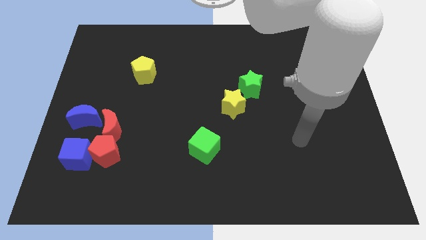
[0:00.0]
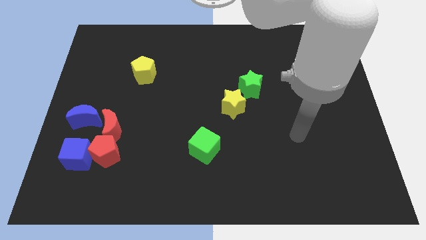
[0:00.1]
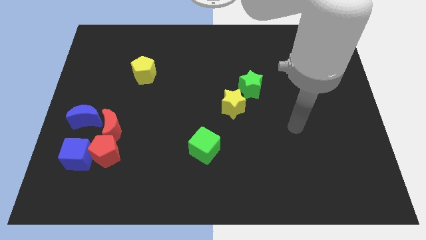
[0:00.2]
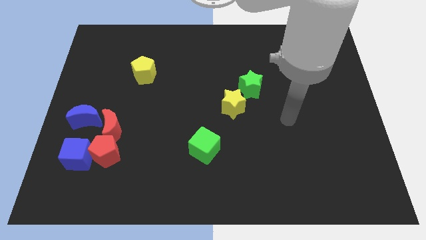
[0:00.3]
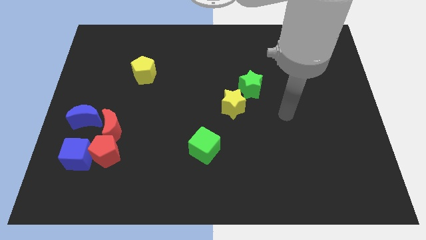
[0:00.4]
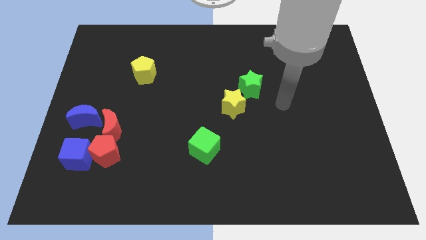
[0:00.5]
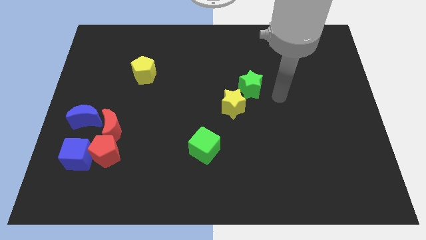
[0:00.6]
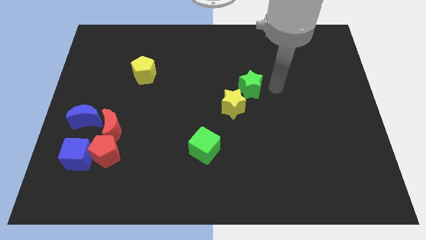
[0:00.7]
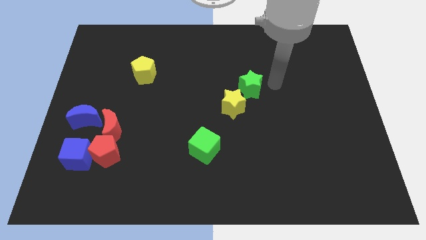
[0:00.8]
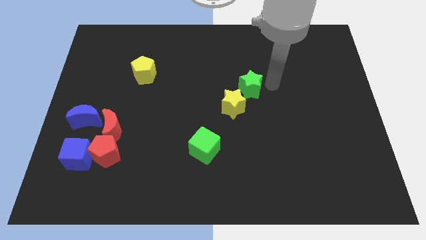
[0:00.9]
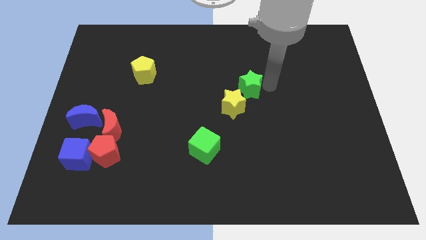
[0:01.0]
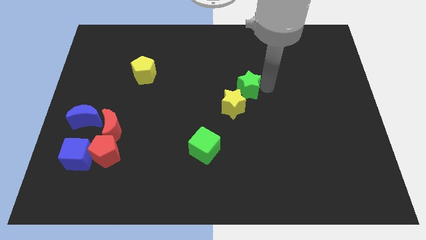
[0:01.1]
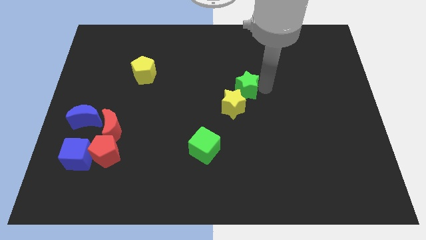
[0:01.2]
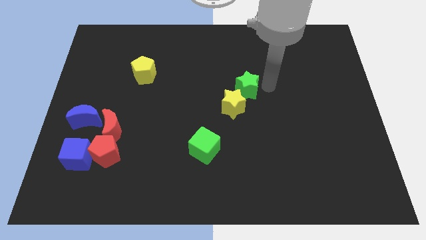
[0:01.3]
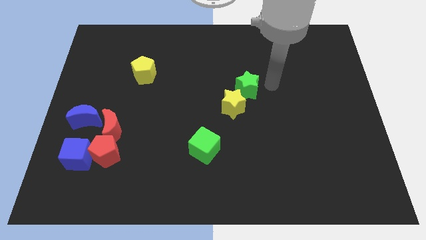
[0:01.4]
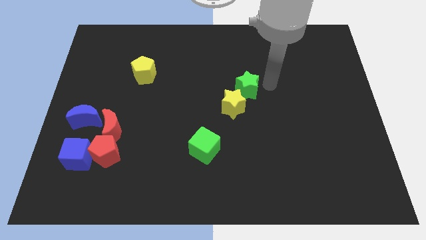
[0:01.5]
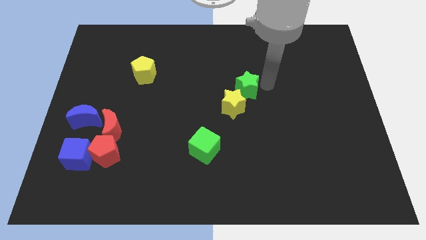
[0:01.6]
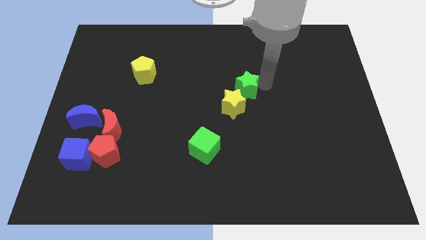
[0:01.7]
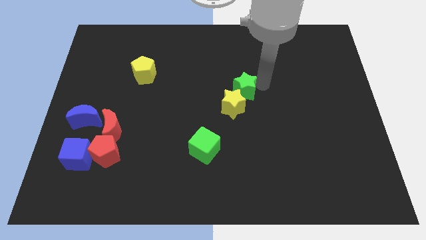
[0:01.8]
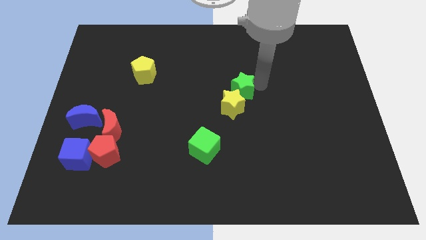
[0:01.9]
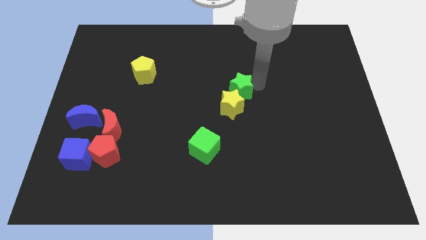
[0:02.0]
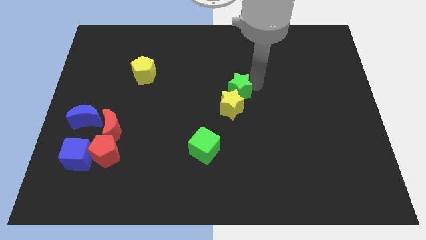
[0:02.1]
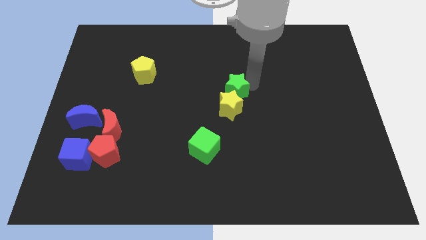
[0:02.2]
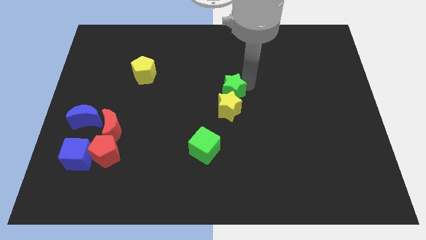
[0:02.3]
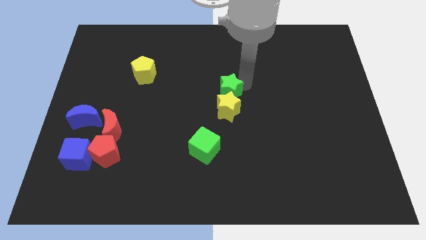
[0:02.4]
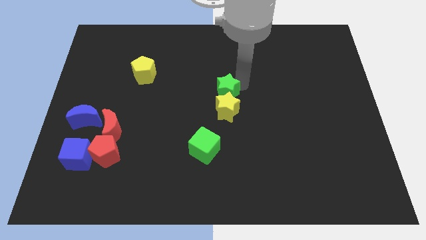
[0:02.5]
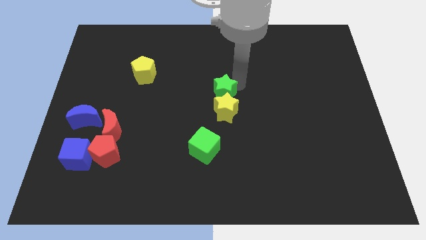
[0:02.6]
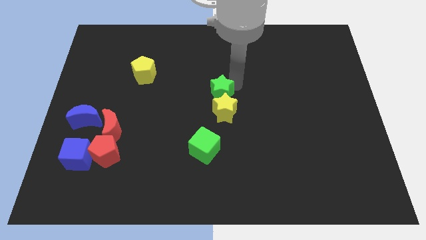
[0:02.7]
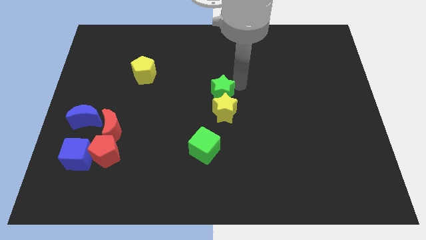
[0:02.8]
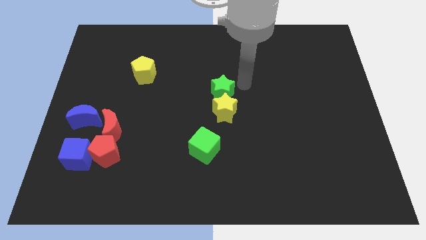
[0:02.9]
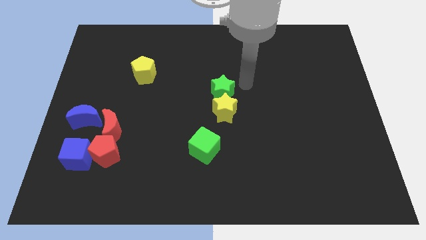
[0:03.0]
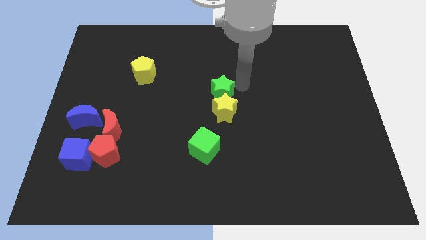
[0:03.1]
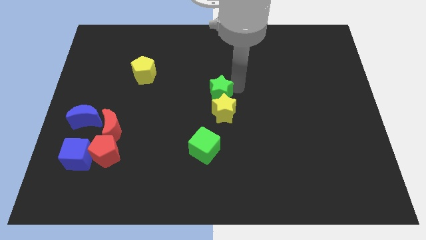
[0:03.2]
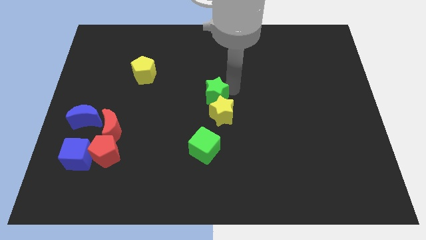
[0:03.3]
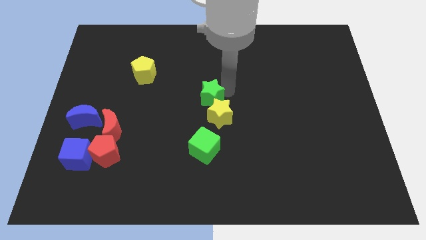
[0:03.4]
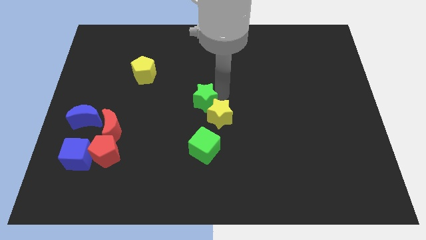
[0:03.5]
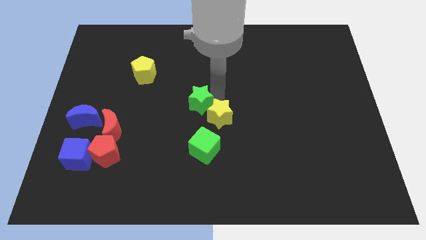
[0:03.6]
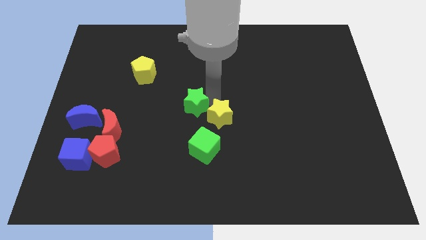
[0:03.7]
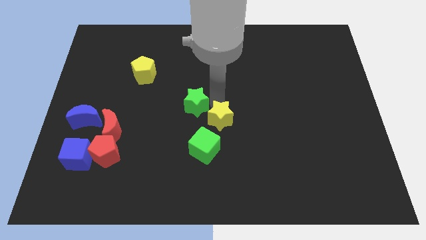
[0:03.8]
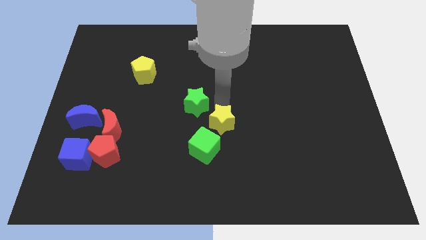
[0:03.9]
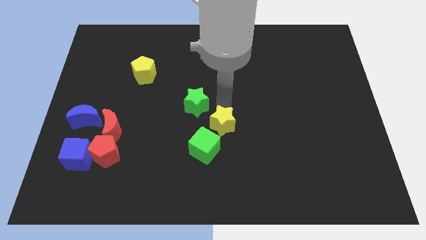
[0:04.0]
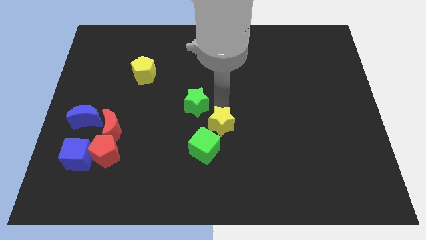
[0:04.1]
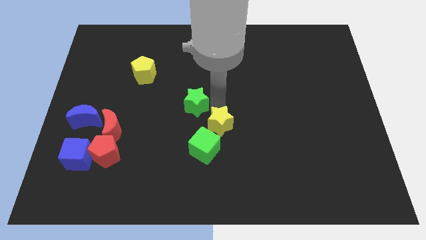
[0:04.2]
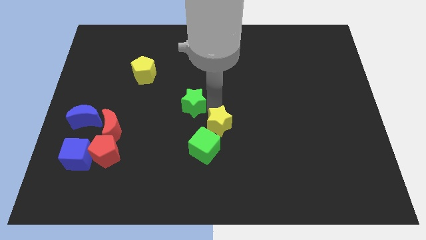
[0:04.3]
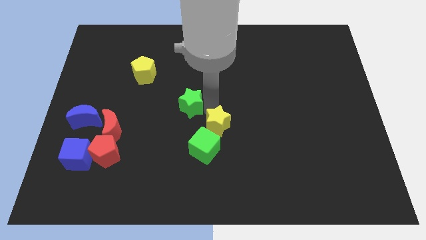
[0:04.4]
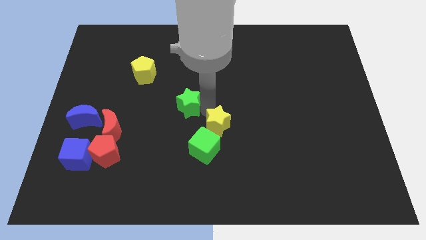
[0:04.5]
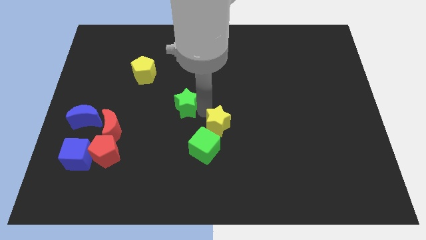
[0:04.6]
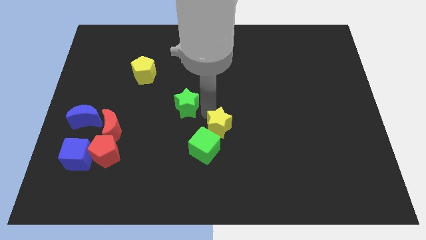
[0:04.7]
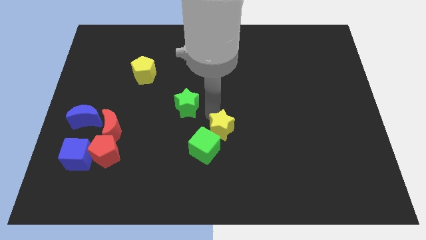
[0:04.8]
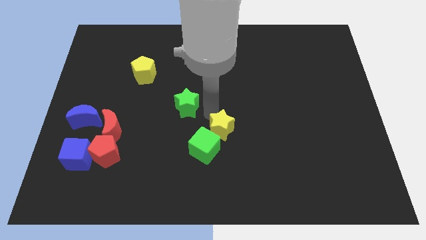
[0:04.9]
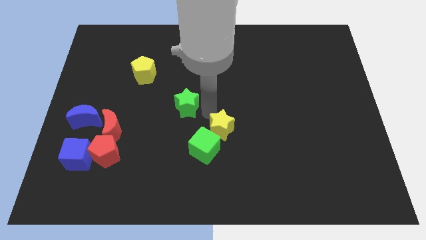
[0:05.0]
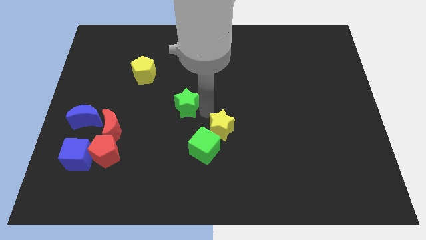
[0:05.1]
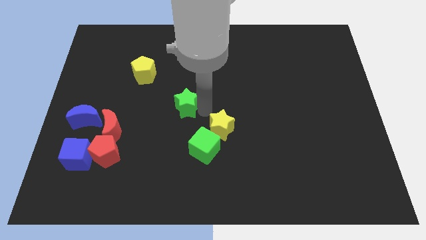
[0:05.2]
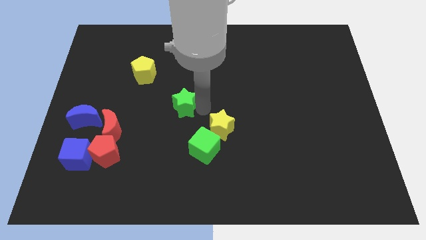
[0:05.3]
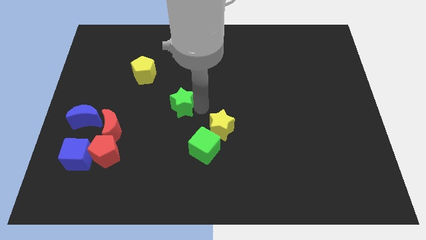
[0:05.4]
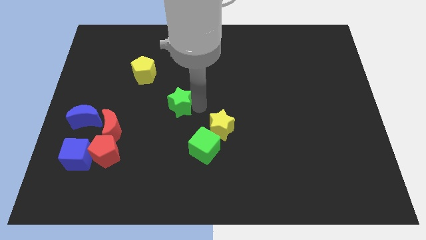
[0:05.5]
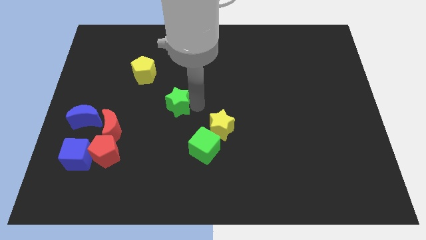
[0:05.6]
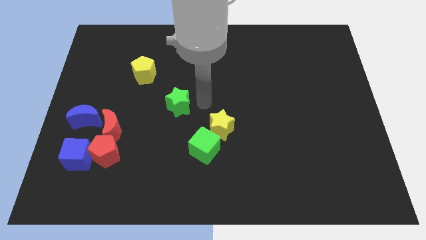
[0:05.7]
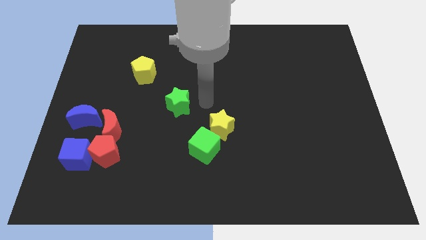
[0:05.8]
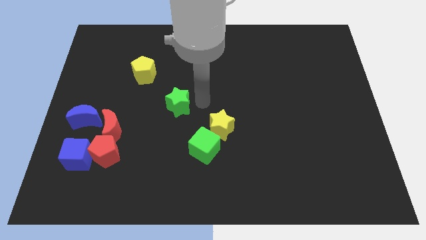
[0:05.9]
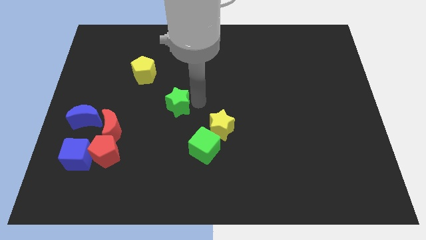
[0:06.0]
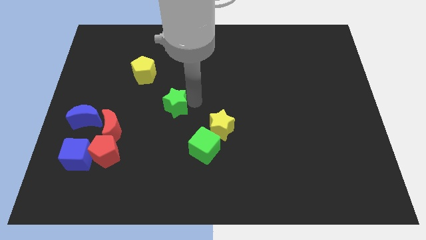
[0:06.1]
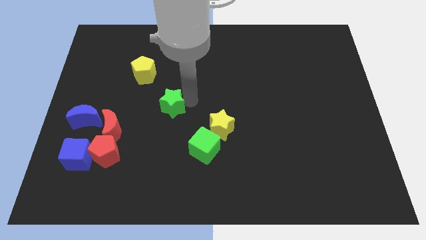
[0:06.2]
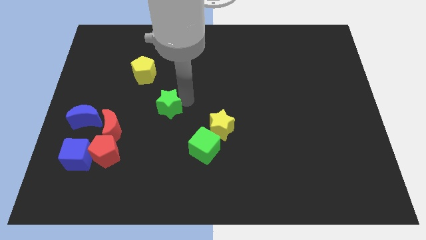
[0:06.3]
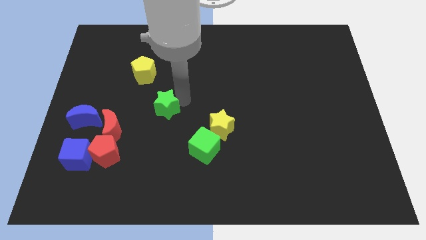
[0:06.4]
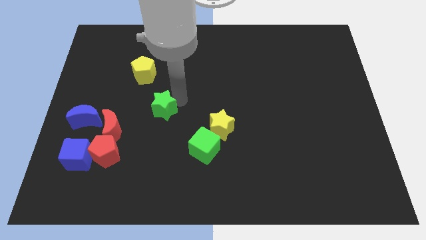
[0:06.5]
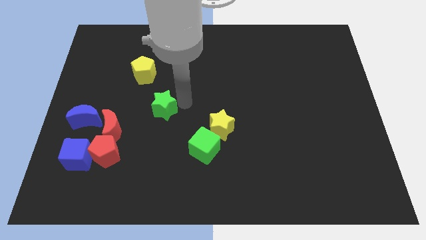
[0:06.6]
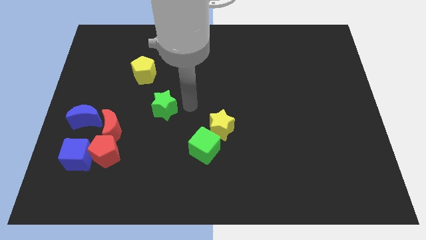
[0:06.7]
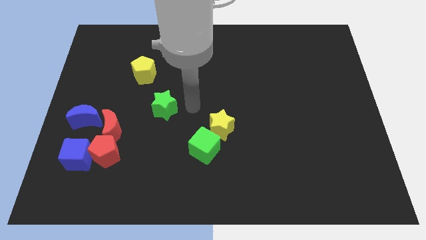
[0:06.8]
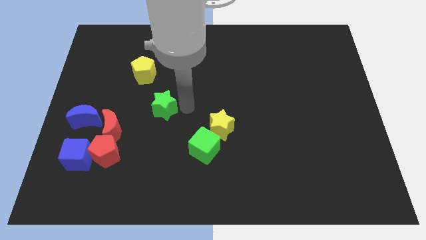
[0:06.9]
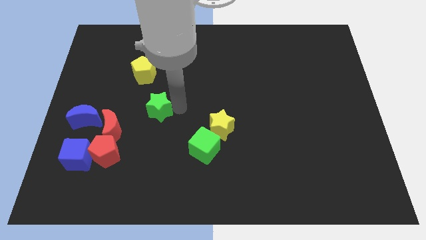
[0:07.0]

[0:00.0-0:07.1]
slide the green star to the top right side of the red moon
